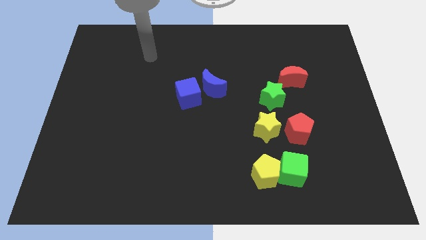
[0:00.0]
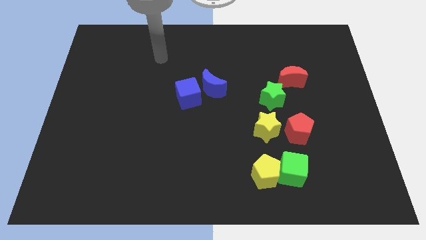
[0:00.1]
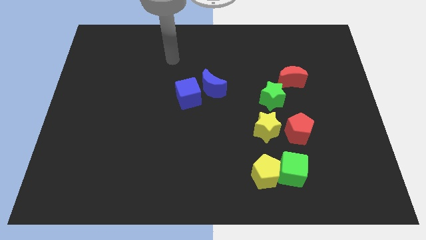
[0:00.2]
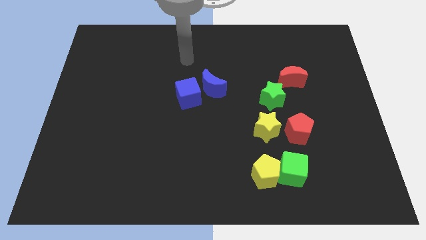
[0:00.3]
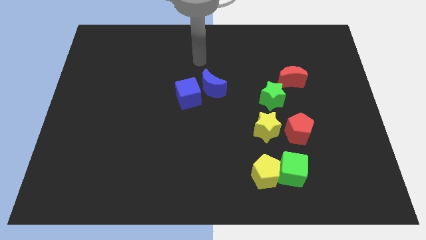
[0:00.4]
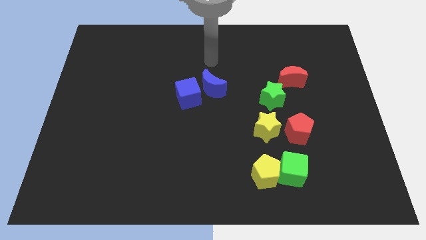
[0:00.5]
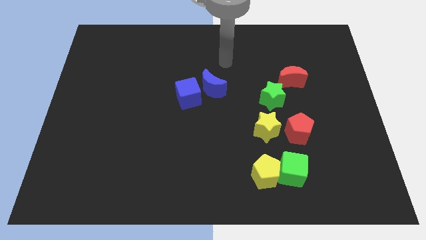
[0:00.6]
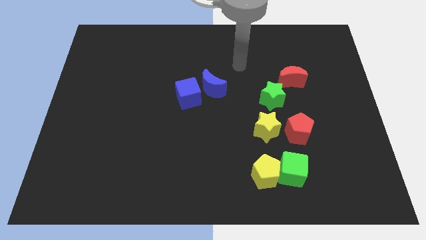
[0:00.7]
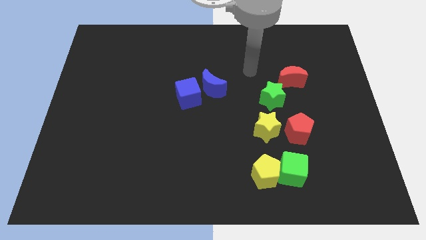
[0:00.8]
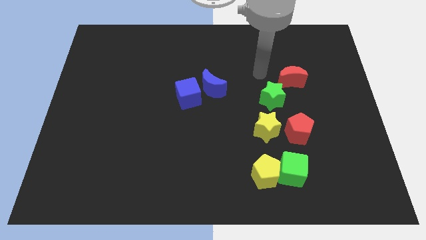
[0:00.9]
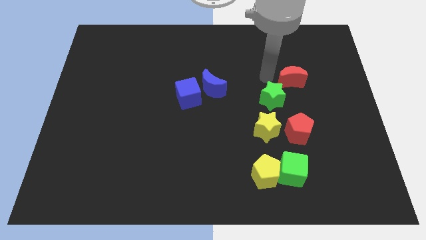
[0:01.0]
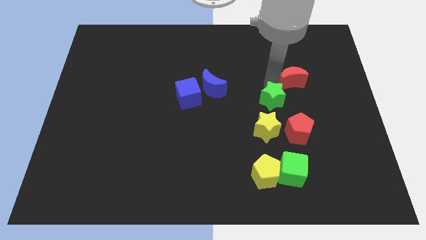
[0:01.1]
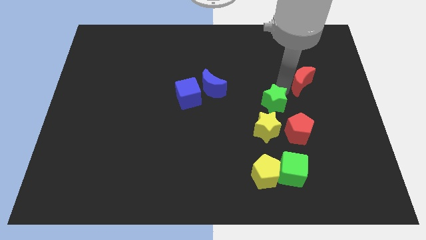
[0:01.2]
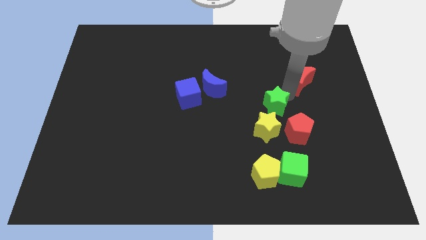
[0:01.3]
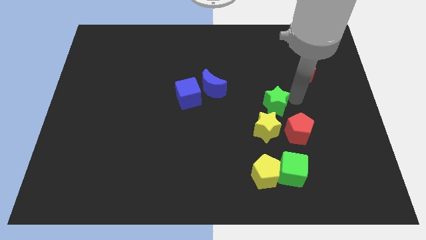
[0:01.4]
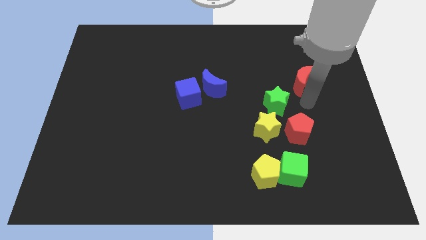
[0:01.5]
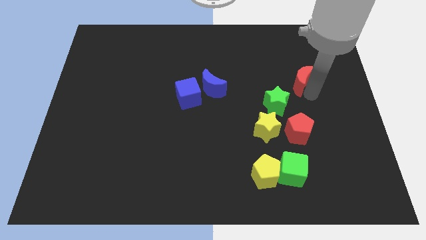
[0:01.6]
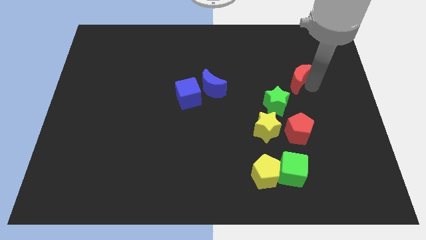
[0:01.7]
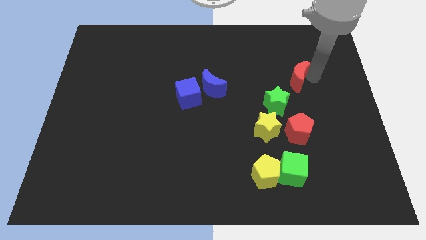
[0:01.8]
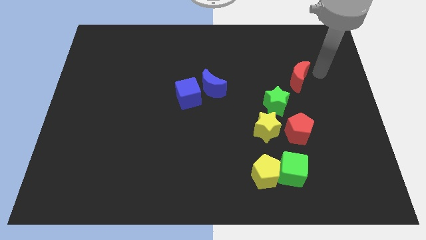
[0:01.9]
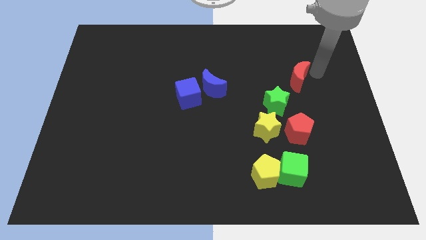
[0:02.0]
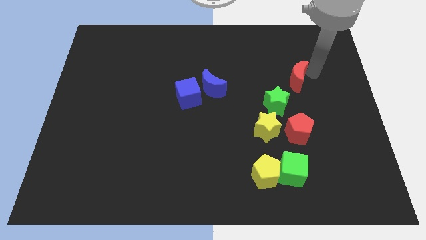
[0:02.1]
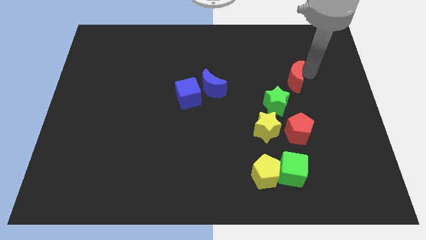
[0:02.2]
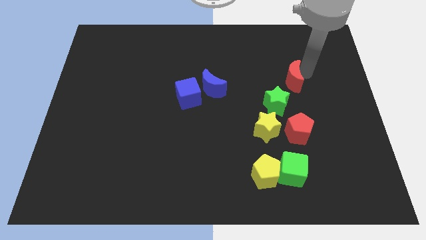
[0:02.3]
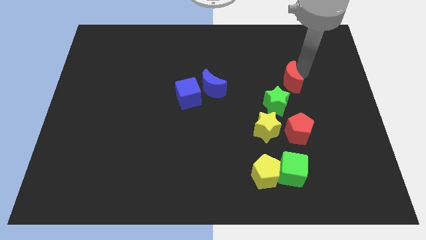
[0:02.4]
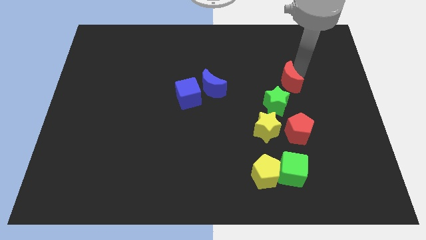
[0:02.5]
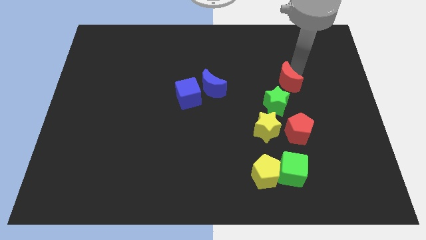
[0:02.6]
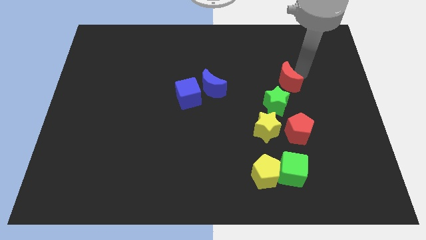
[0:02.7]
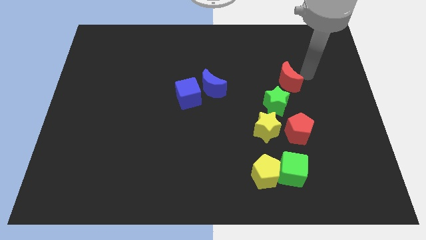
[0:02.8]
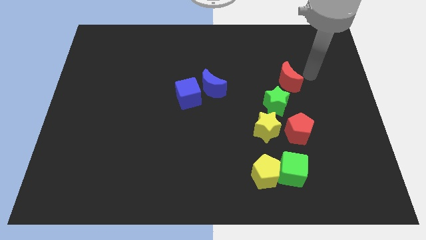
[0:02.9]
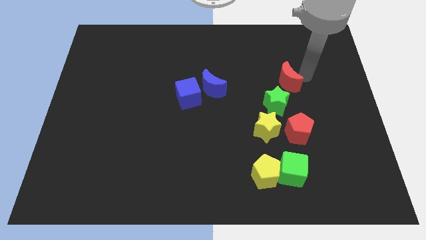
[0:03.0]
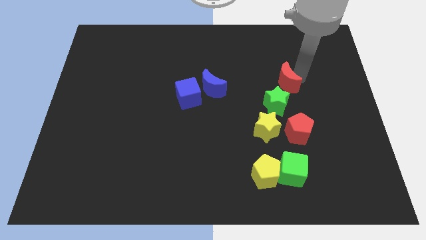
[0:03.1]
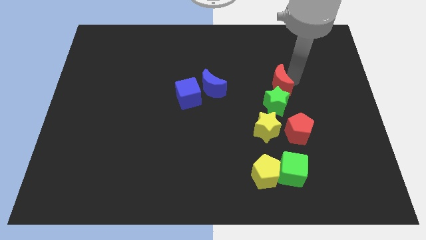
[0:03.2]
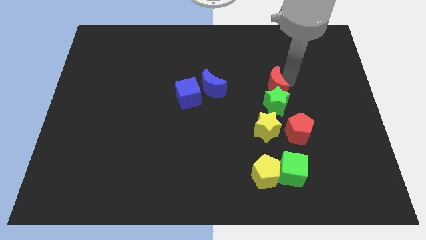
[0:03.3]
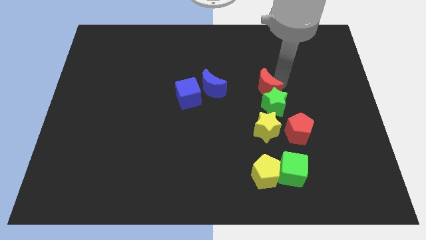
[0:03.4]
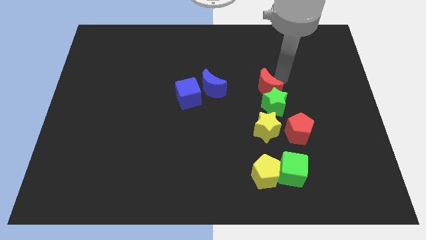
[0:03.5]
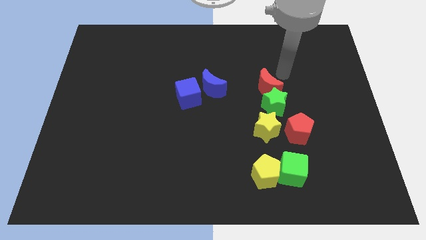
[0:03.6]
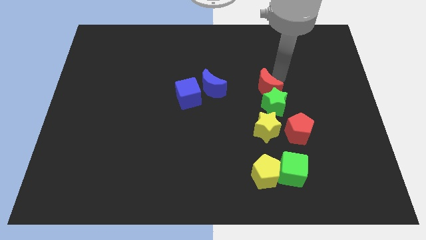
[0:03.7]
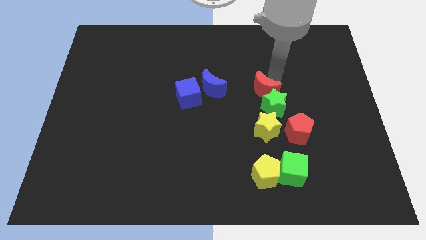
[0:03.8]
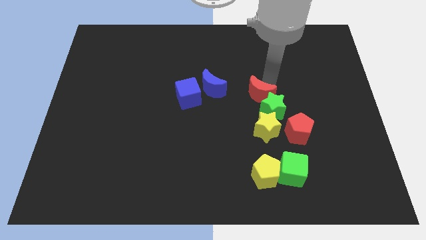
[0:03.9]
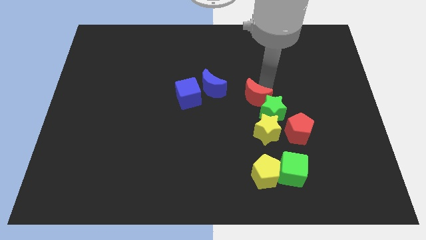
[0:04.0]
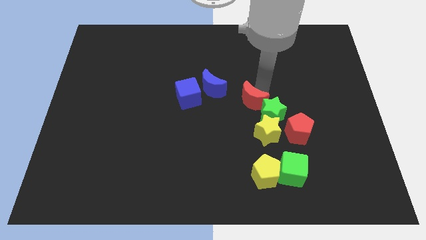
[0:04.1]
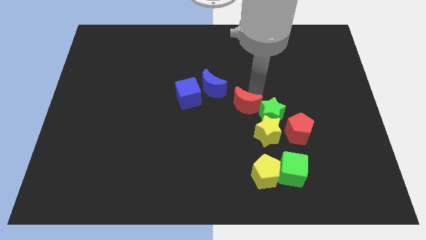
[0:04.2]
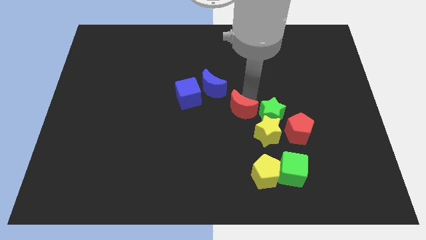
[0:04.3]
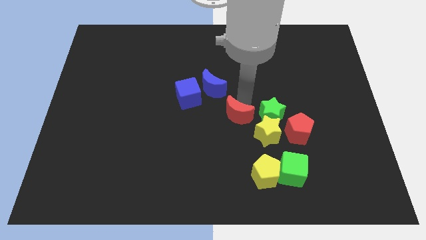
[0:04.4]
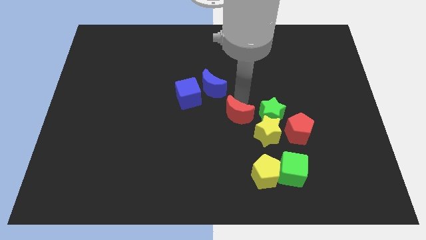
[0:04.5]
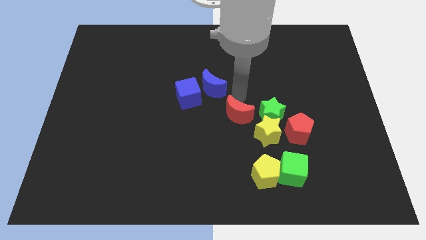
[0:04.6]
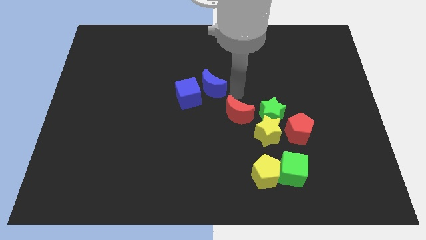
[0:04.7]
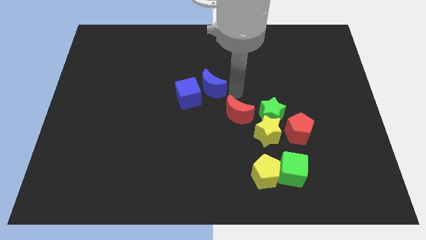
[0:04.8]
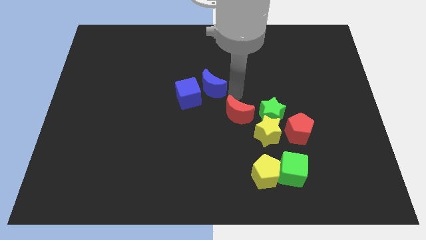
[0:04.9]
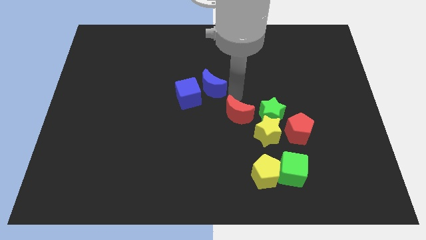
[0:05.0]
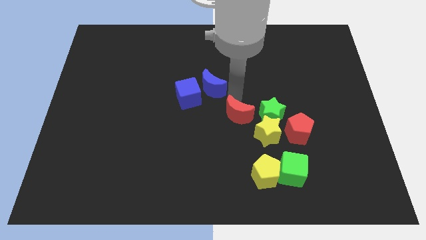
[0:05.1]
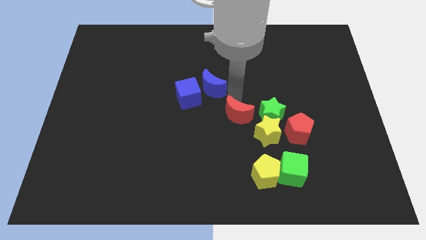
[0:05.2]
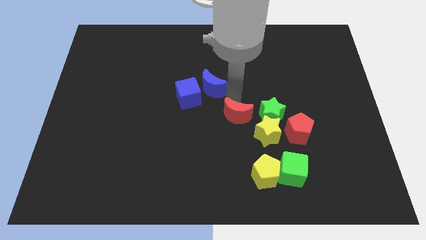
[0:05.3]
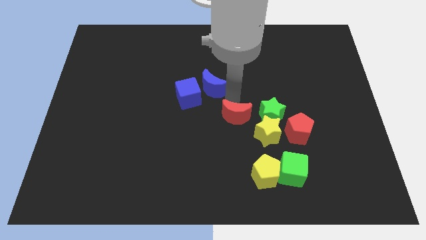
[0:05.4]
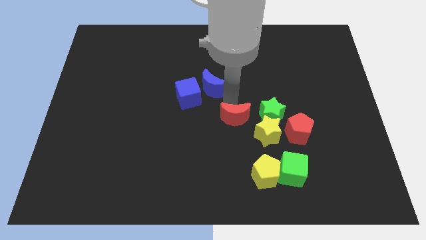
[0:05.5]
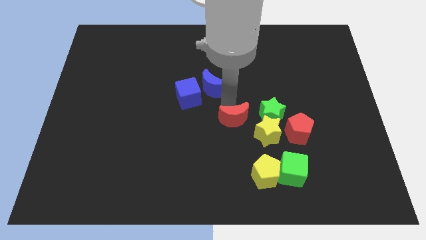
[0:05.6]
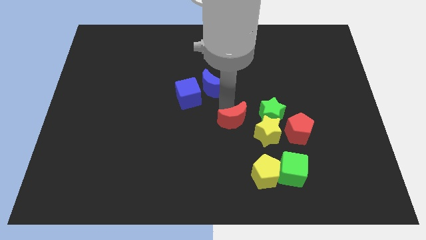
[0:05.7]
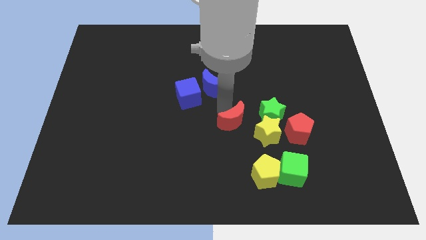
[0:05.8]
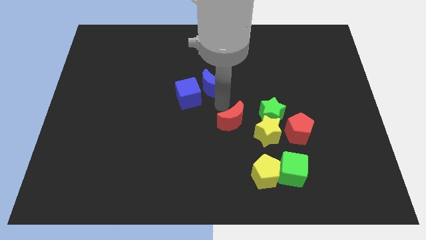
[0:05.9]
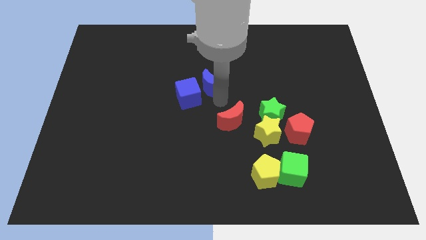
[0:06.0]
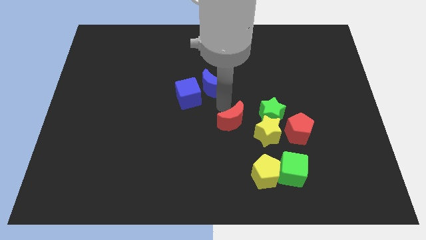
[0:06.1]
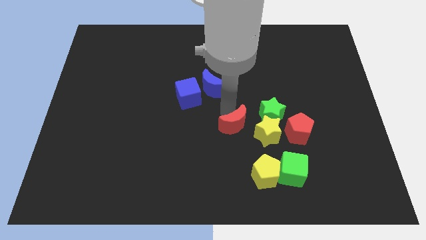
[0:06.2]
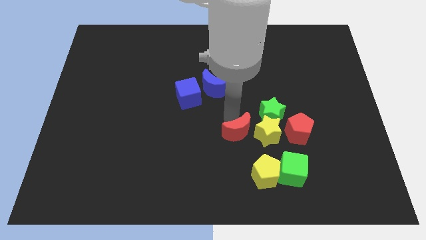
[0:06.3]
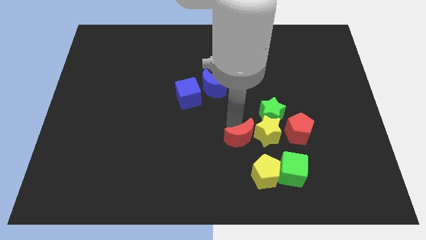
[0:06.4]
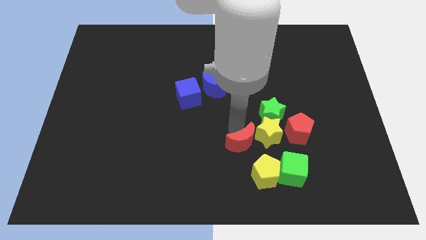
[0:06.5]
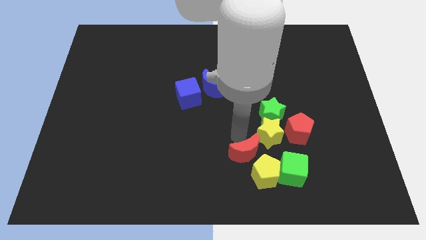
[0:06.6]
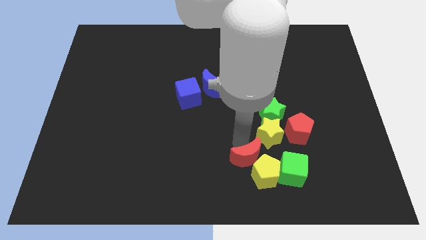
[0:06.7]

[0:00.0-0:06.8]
push the red moon to the yellow pentagon

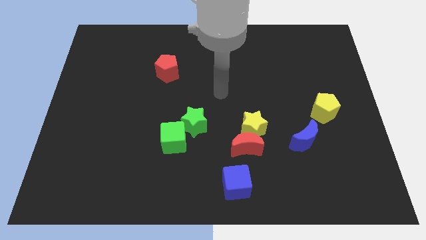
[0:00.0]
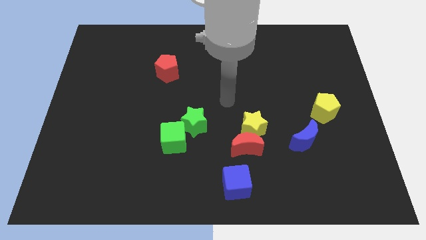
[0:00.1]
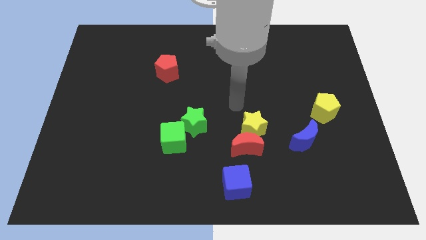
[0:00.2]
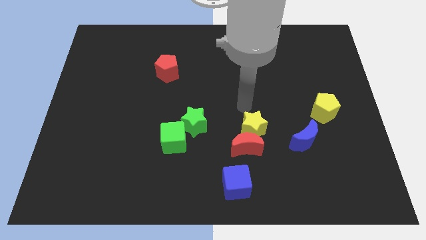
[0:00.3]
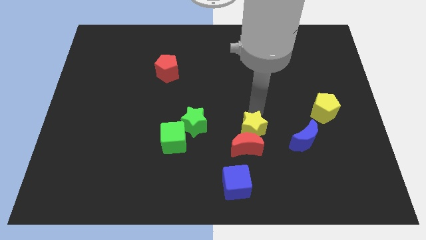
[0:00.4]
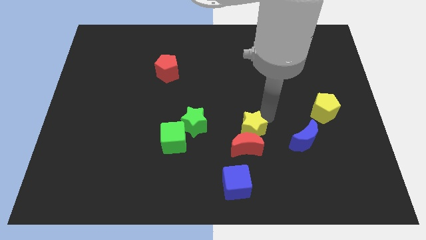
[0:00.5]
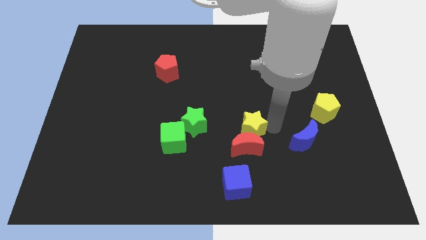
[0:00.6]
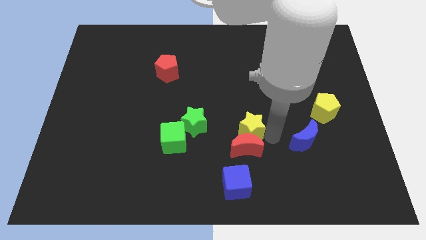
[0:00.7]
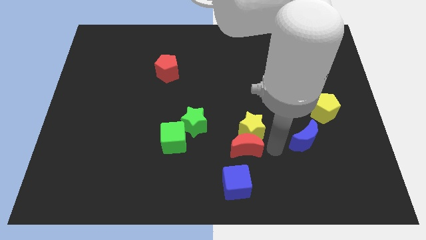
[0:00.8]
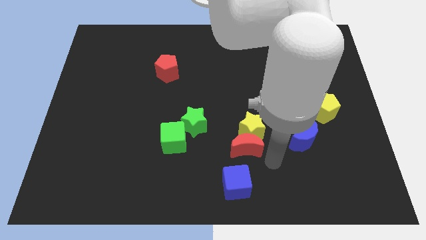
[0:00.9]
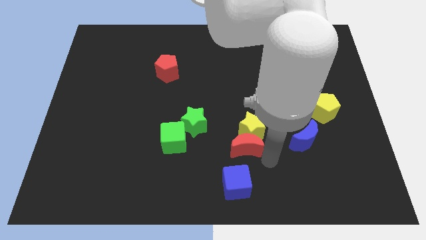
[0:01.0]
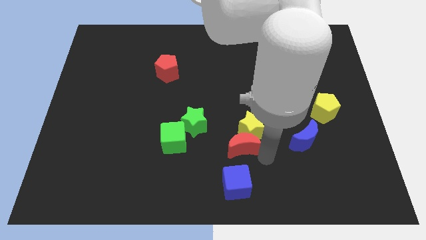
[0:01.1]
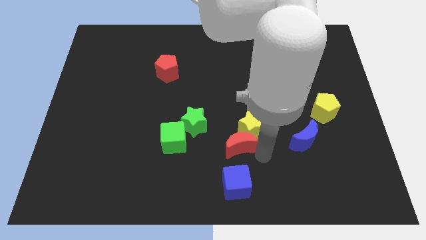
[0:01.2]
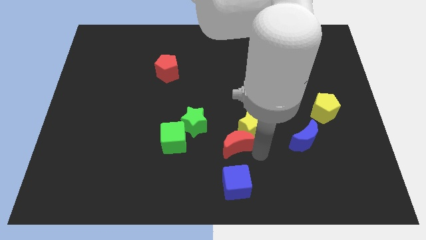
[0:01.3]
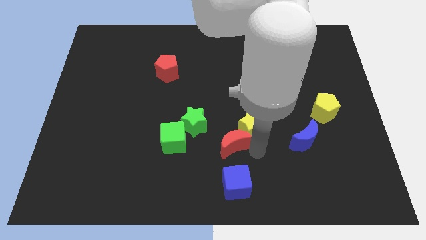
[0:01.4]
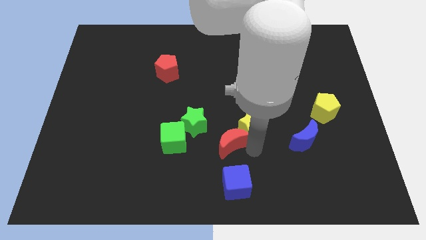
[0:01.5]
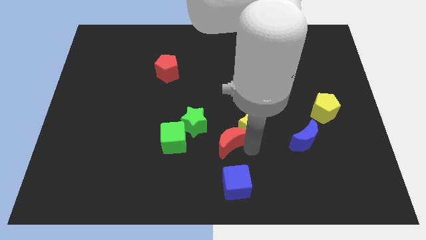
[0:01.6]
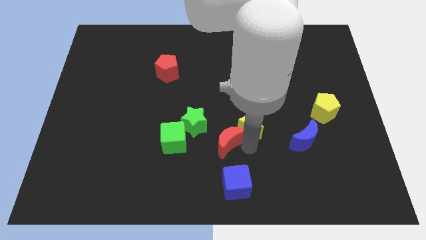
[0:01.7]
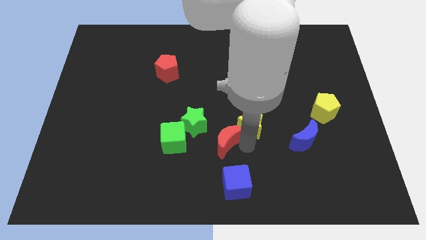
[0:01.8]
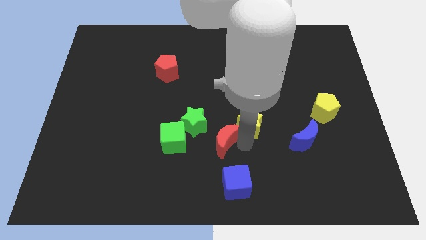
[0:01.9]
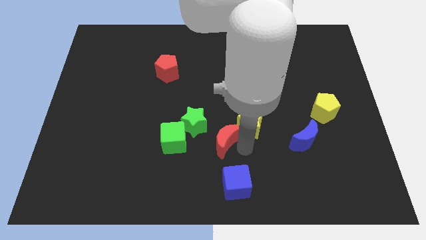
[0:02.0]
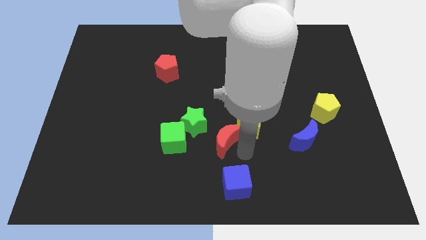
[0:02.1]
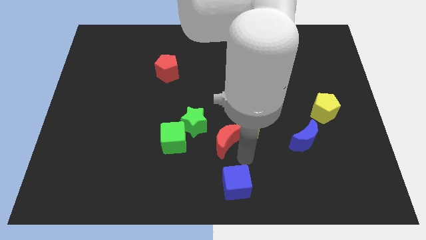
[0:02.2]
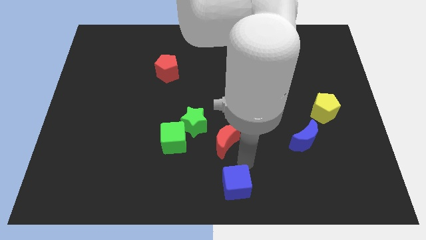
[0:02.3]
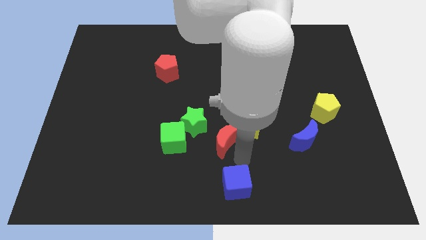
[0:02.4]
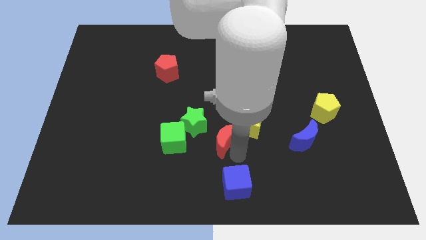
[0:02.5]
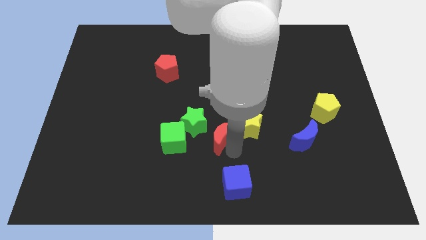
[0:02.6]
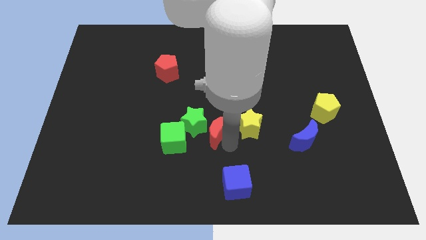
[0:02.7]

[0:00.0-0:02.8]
move the red moon to the green star
